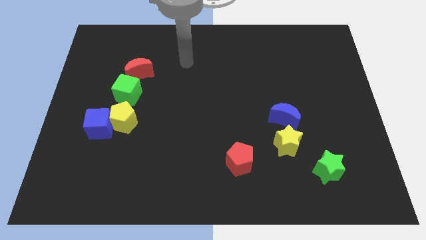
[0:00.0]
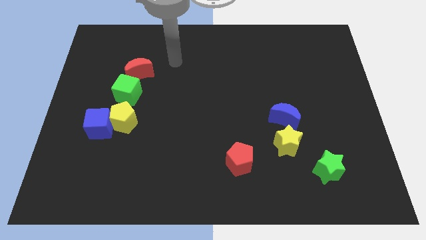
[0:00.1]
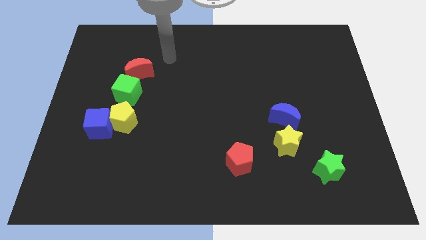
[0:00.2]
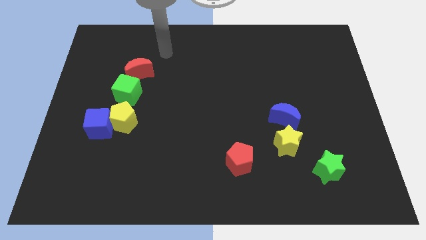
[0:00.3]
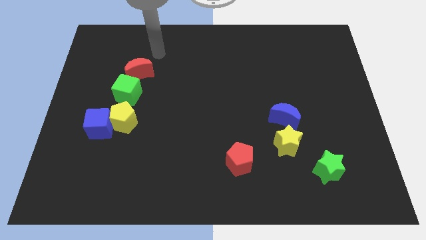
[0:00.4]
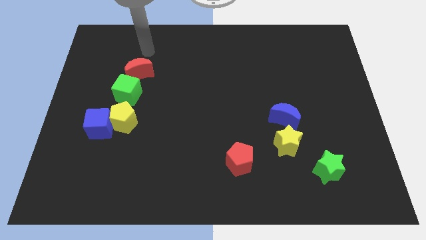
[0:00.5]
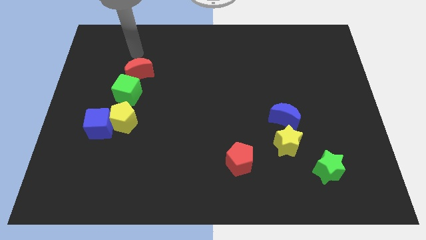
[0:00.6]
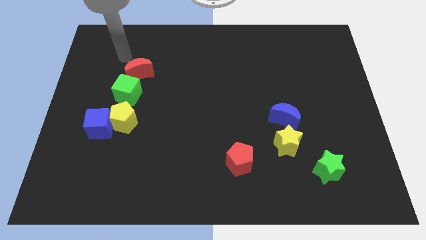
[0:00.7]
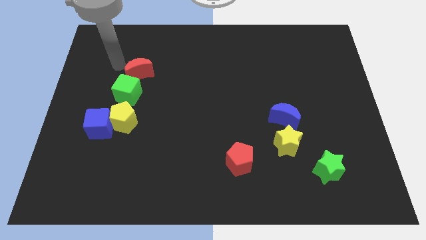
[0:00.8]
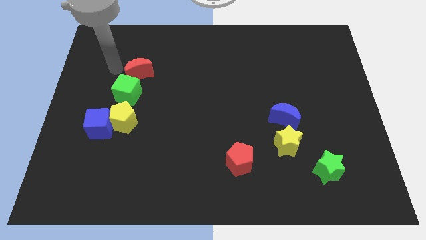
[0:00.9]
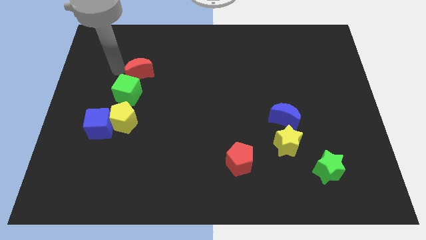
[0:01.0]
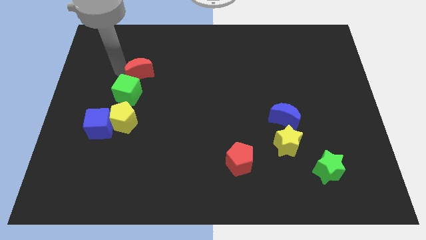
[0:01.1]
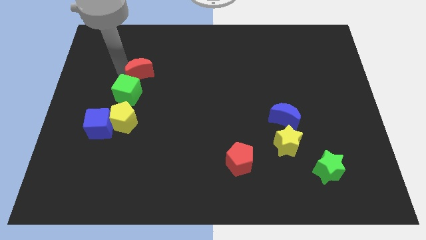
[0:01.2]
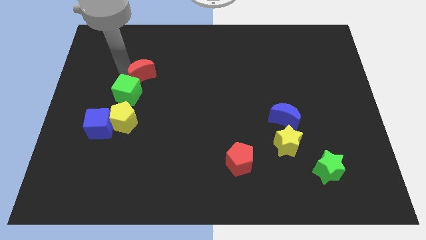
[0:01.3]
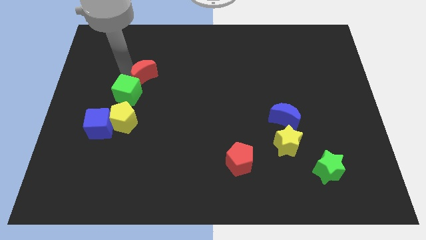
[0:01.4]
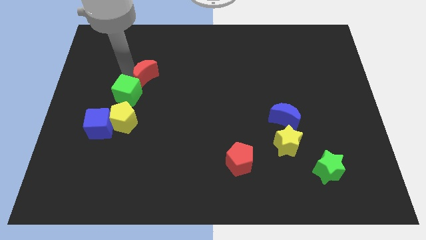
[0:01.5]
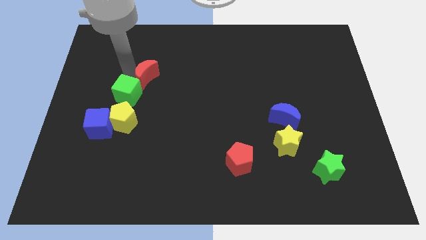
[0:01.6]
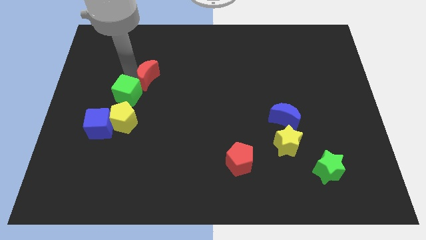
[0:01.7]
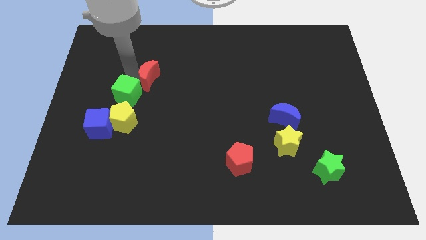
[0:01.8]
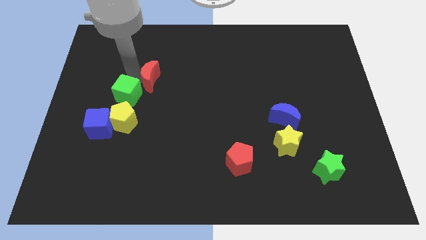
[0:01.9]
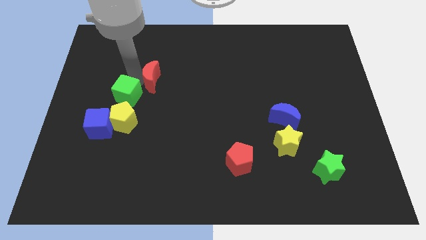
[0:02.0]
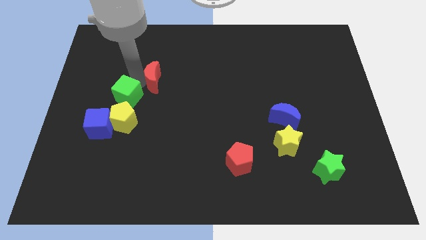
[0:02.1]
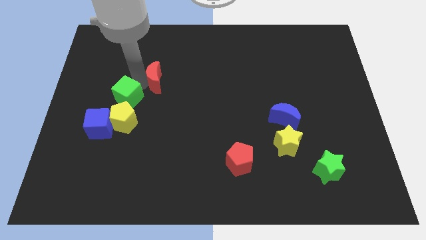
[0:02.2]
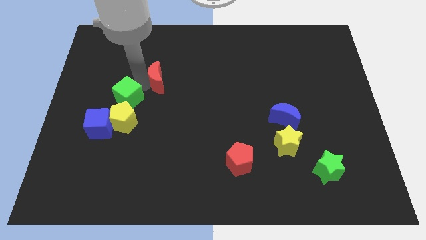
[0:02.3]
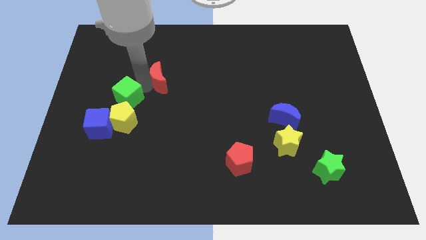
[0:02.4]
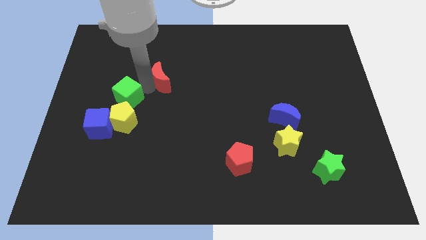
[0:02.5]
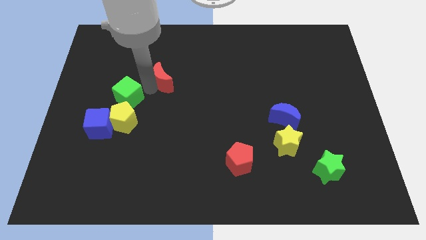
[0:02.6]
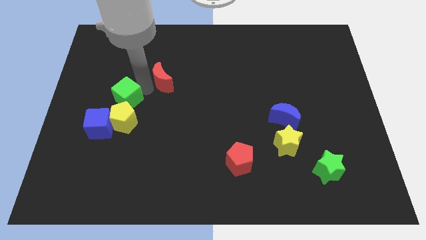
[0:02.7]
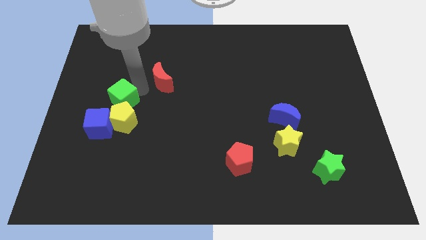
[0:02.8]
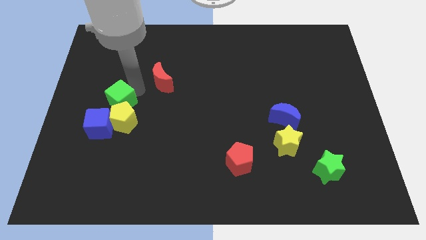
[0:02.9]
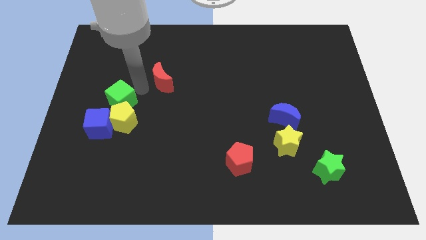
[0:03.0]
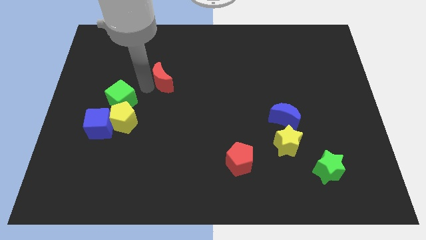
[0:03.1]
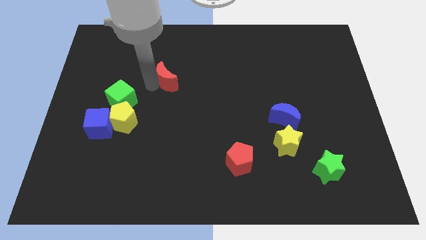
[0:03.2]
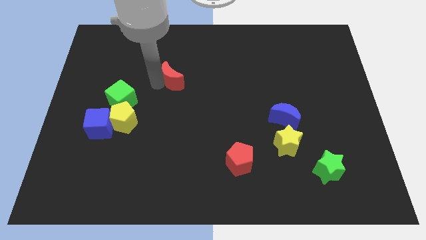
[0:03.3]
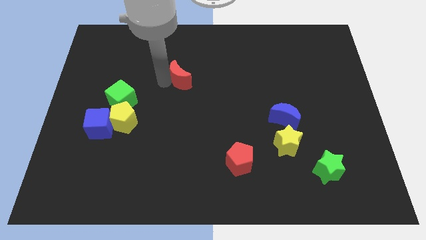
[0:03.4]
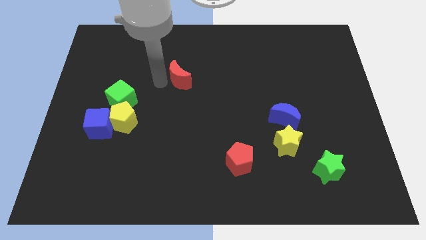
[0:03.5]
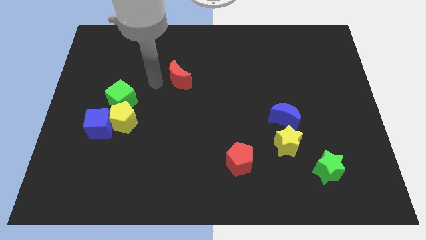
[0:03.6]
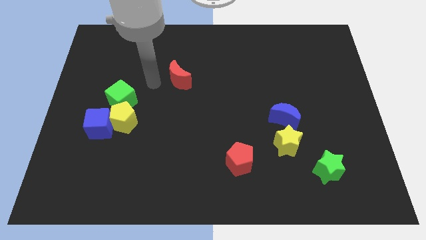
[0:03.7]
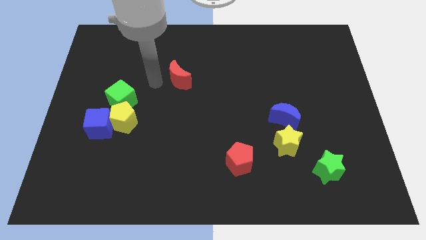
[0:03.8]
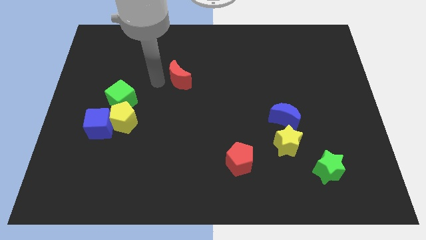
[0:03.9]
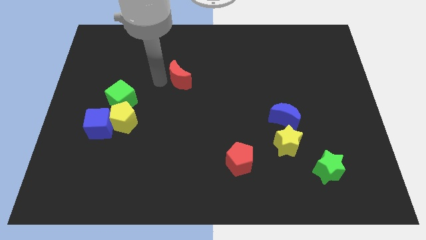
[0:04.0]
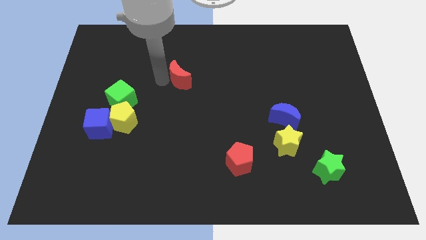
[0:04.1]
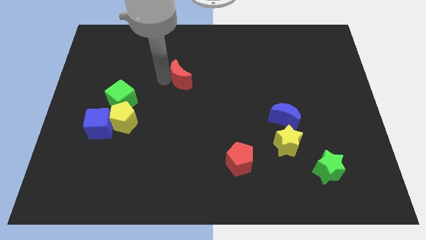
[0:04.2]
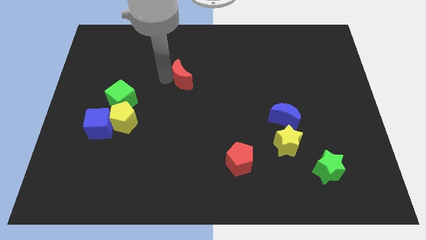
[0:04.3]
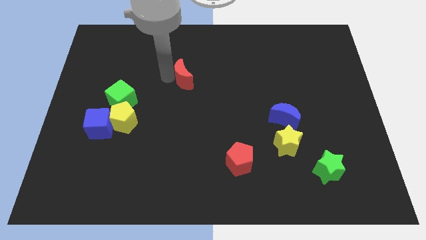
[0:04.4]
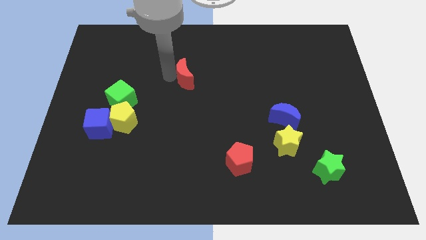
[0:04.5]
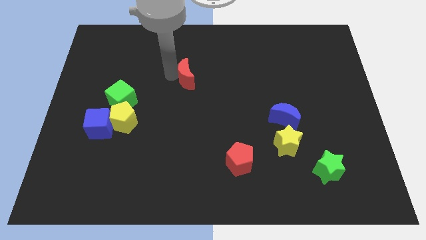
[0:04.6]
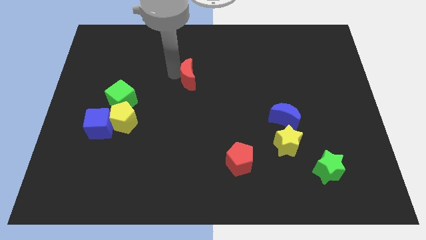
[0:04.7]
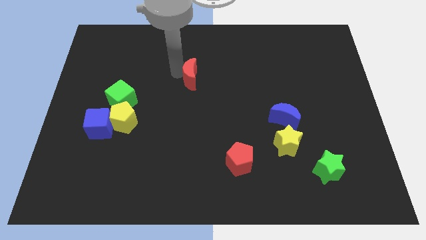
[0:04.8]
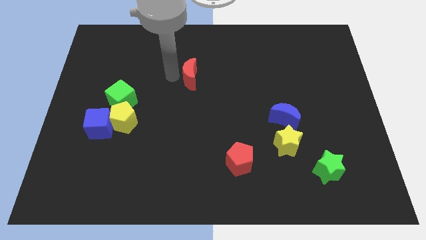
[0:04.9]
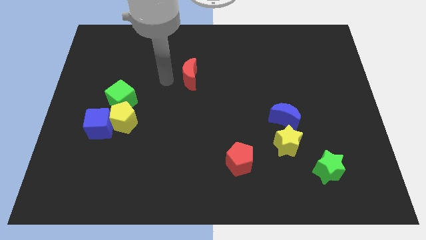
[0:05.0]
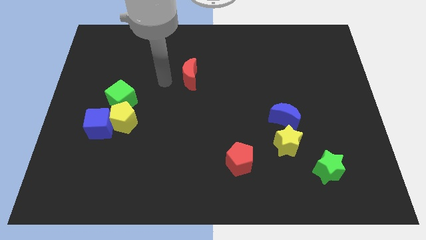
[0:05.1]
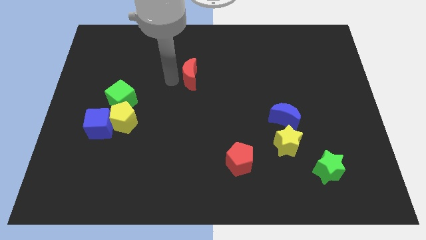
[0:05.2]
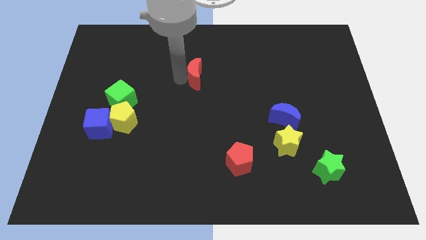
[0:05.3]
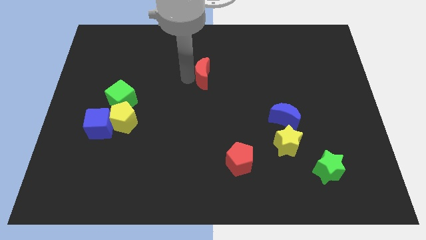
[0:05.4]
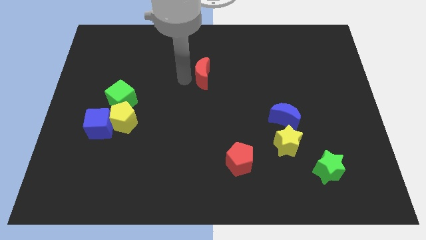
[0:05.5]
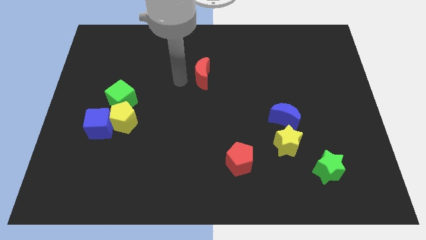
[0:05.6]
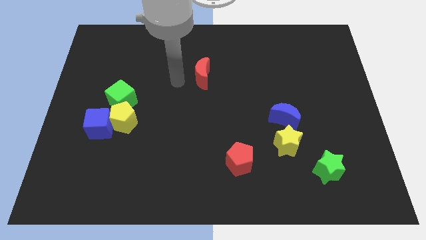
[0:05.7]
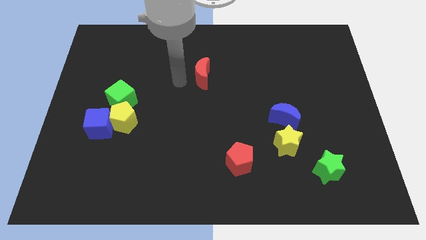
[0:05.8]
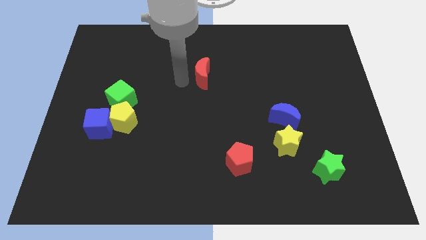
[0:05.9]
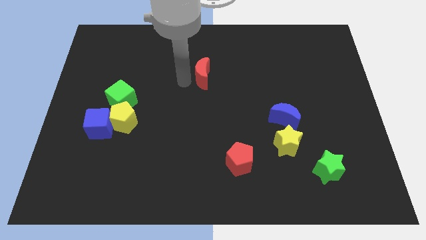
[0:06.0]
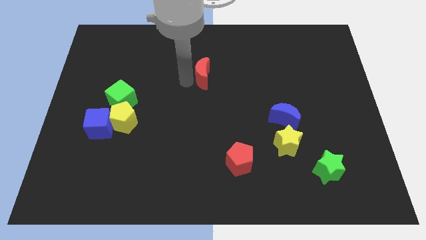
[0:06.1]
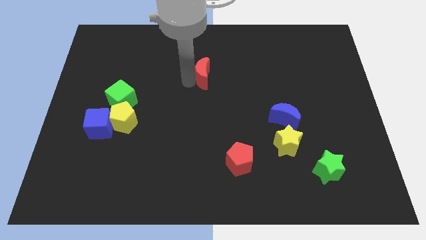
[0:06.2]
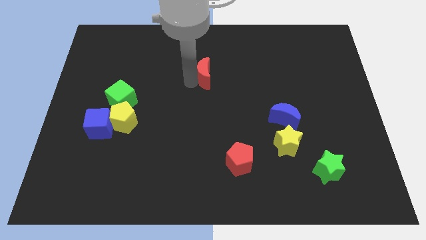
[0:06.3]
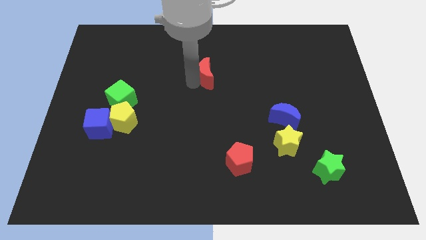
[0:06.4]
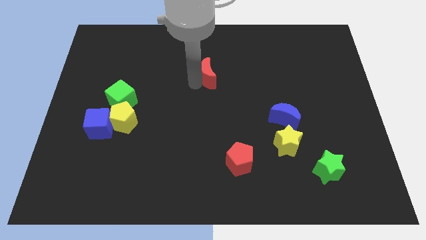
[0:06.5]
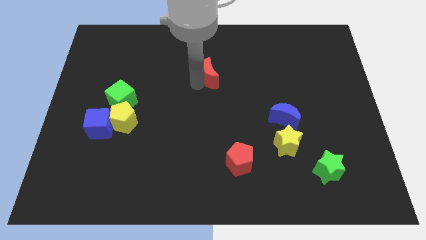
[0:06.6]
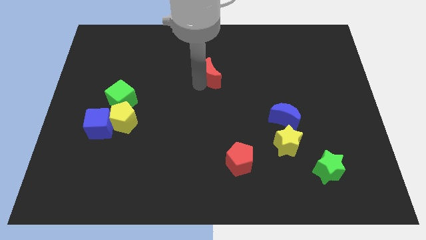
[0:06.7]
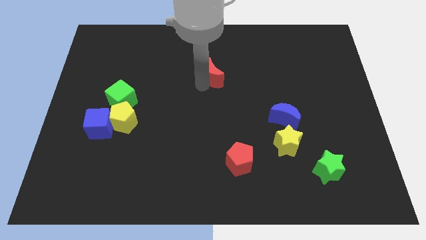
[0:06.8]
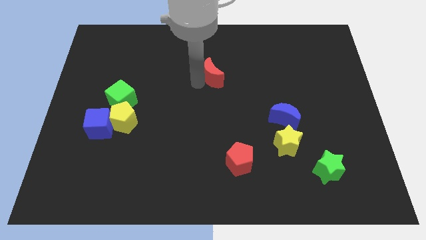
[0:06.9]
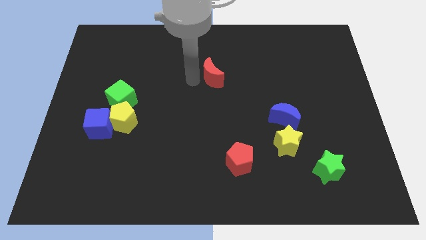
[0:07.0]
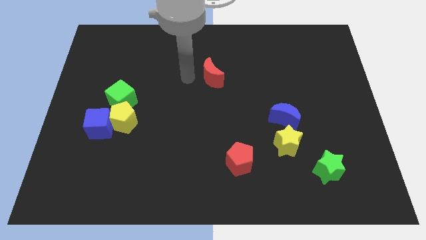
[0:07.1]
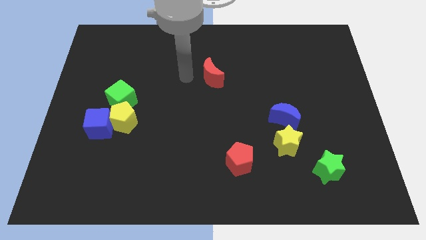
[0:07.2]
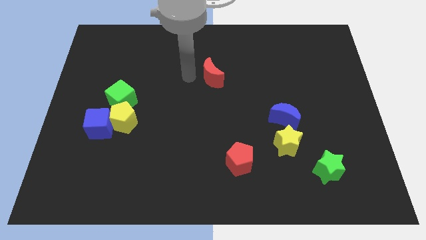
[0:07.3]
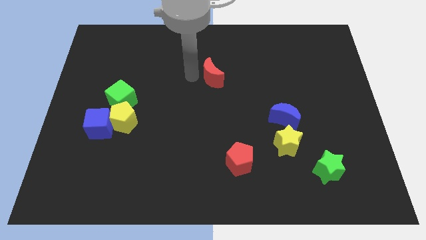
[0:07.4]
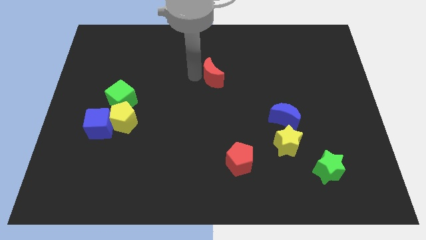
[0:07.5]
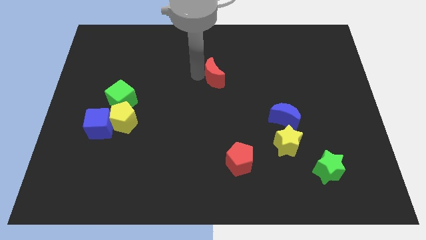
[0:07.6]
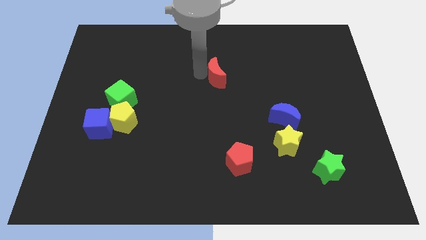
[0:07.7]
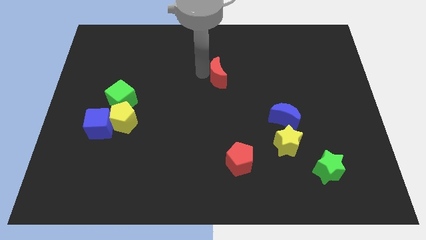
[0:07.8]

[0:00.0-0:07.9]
slide the red moon right
